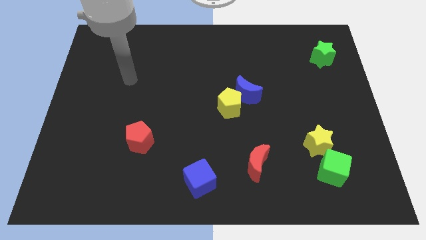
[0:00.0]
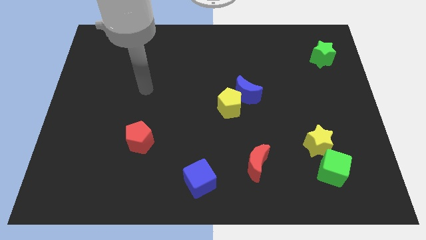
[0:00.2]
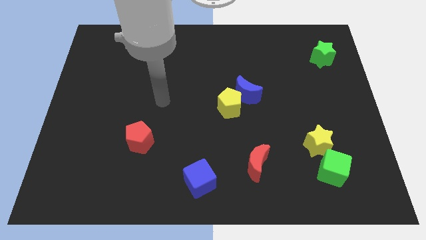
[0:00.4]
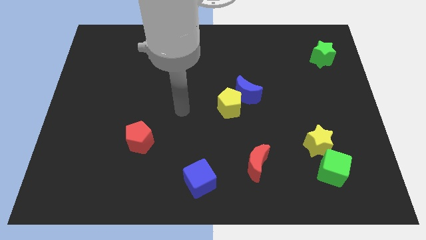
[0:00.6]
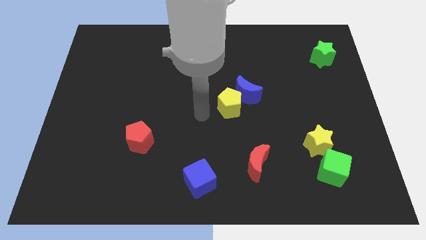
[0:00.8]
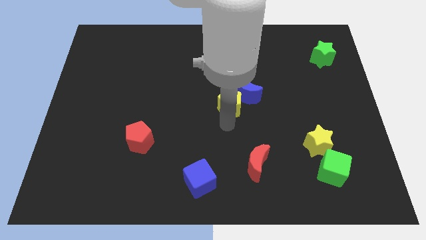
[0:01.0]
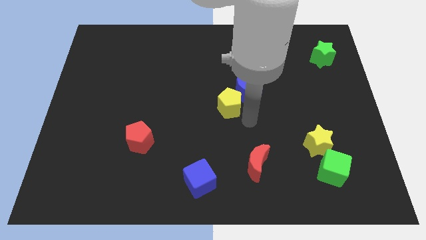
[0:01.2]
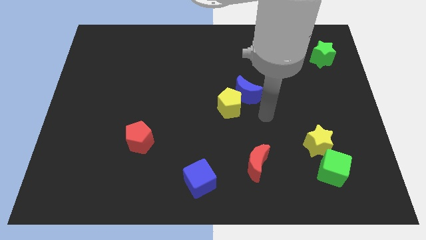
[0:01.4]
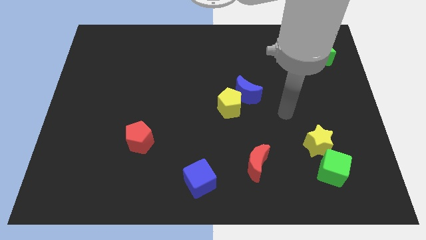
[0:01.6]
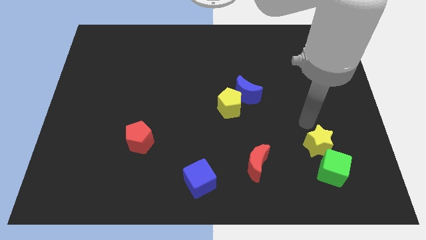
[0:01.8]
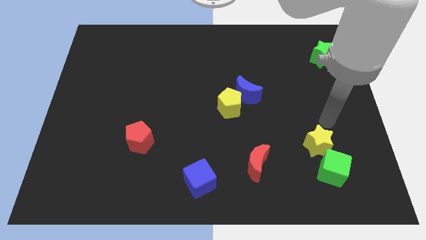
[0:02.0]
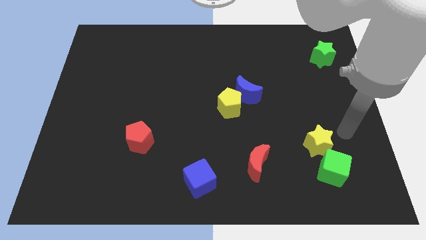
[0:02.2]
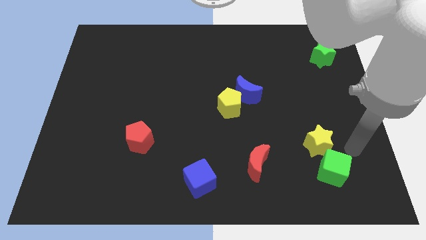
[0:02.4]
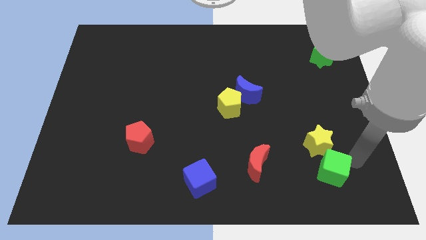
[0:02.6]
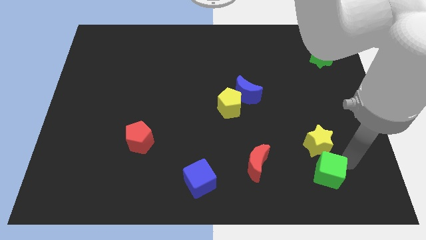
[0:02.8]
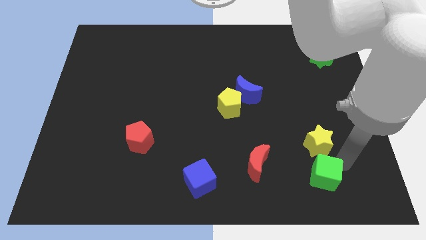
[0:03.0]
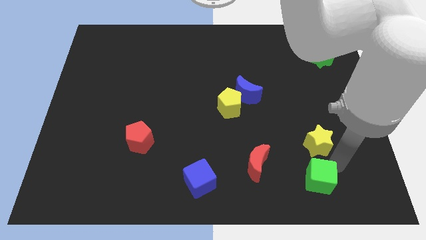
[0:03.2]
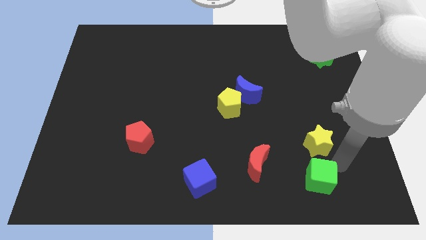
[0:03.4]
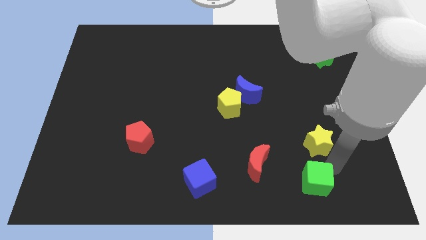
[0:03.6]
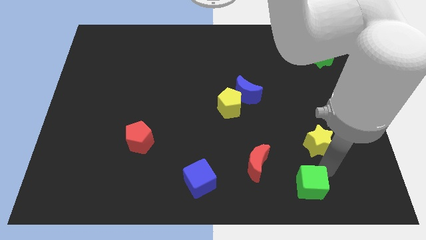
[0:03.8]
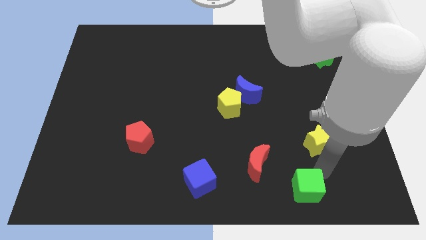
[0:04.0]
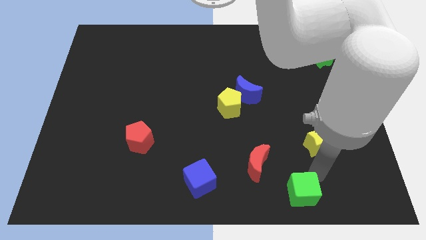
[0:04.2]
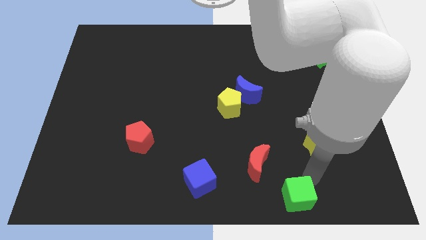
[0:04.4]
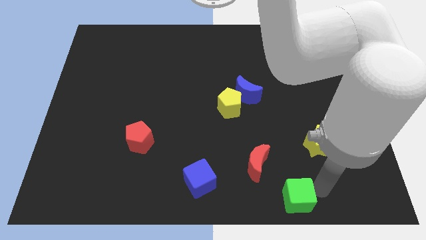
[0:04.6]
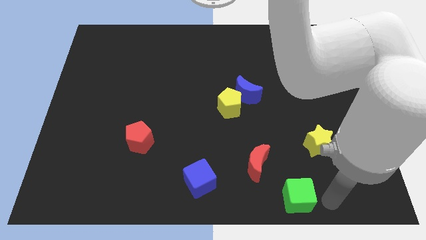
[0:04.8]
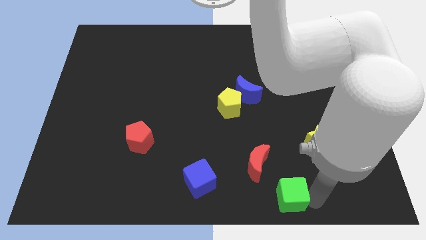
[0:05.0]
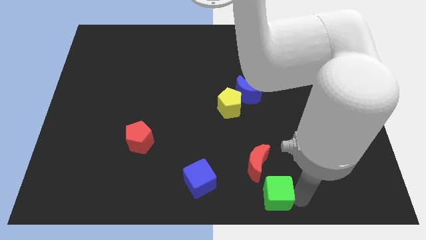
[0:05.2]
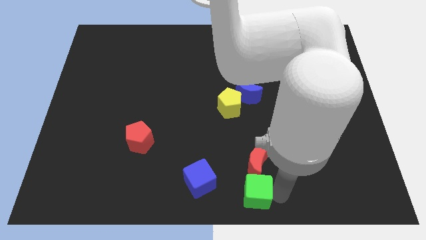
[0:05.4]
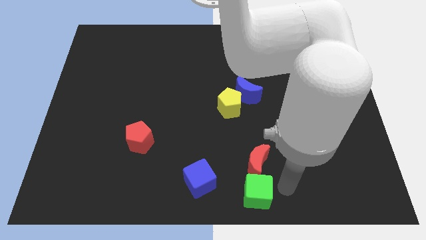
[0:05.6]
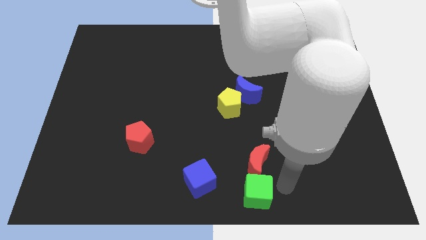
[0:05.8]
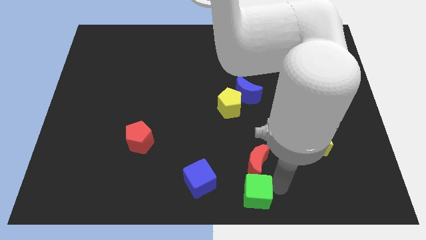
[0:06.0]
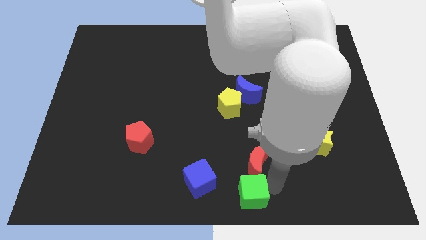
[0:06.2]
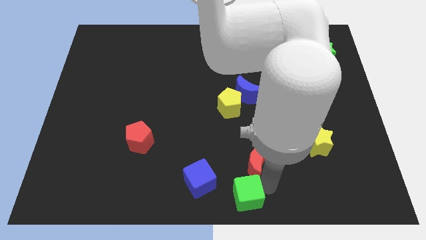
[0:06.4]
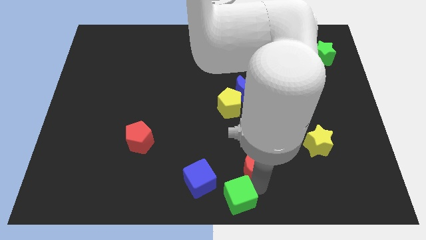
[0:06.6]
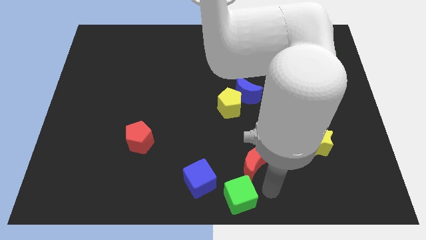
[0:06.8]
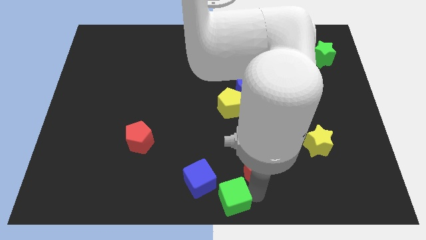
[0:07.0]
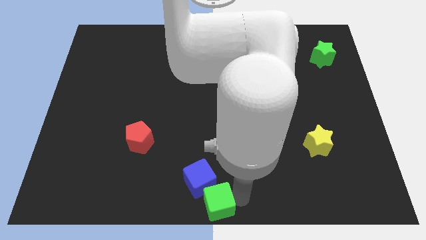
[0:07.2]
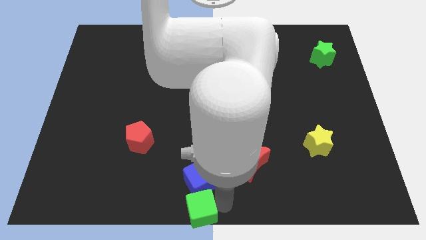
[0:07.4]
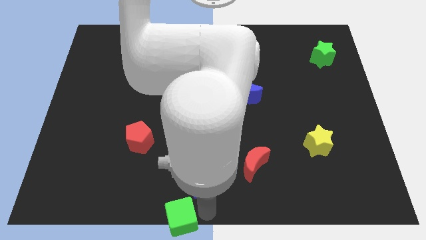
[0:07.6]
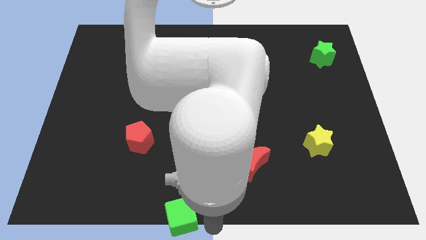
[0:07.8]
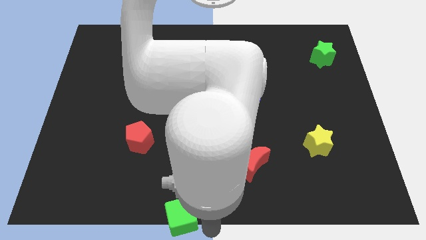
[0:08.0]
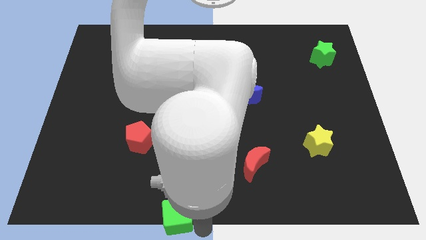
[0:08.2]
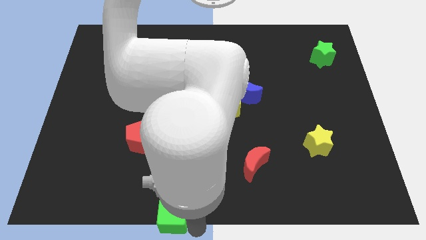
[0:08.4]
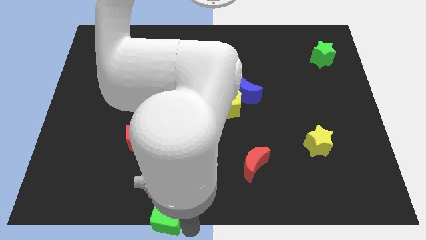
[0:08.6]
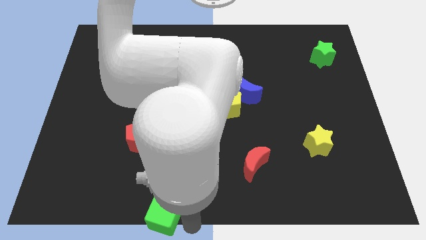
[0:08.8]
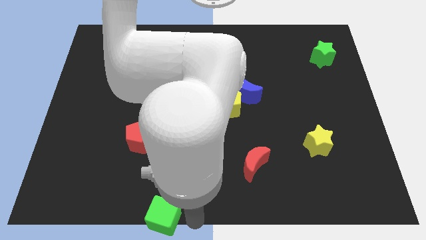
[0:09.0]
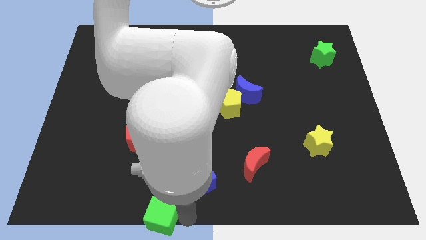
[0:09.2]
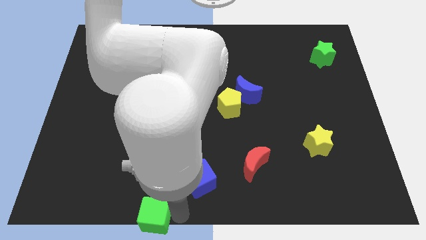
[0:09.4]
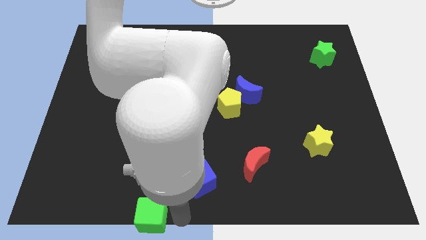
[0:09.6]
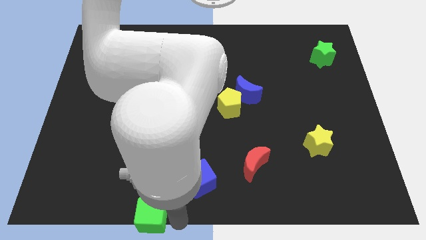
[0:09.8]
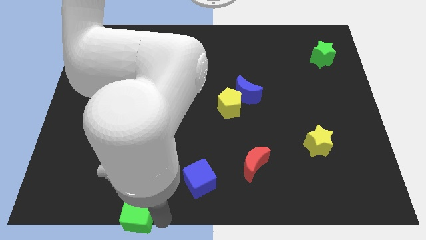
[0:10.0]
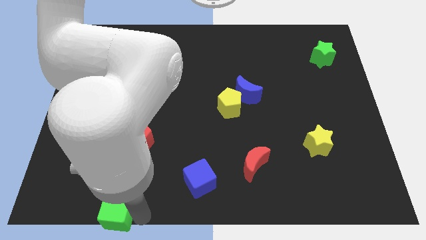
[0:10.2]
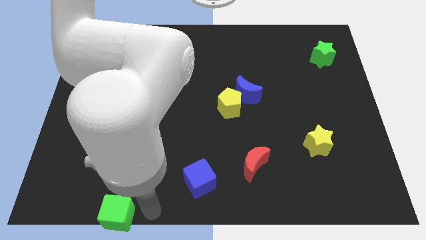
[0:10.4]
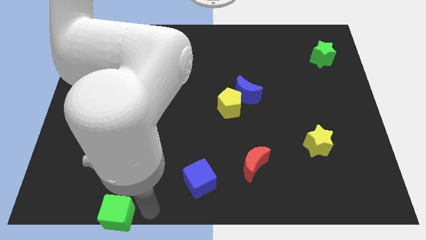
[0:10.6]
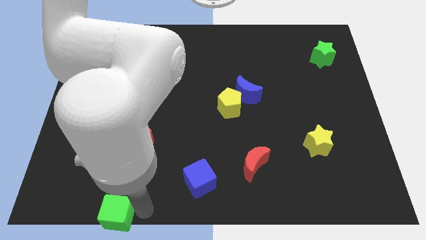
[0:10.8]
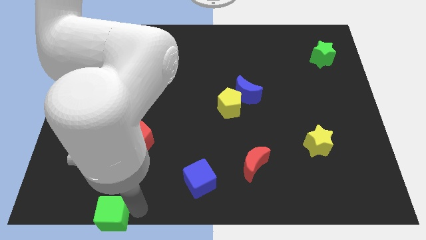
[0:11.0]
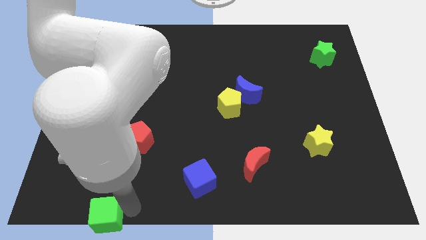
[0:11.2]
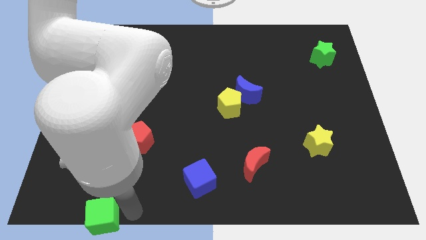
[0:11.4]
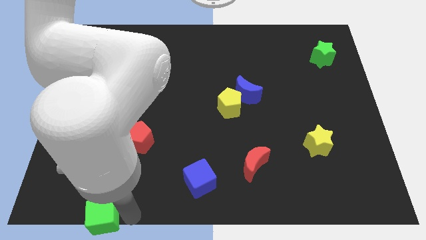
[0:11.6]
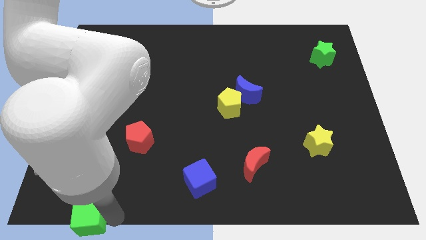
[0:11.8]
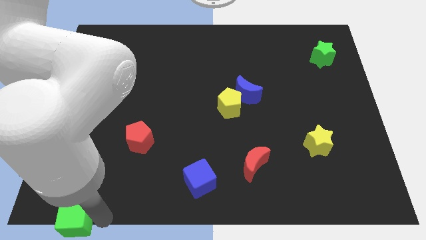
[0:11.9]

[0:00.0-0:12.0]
slide the green cube to the bottom left of the board

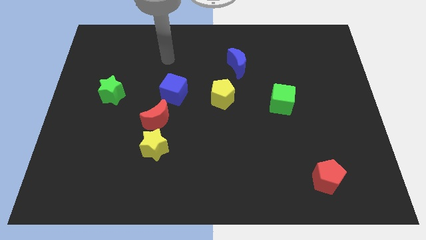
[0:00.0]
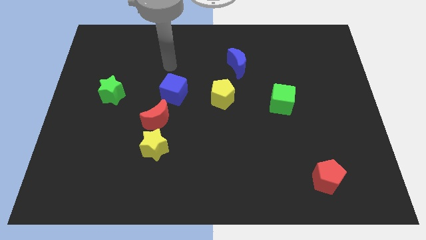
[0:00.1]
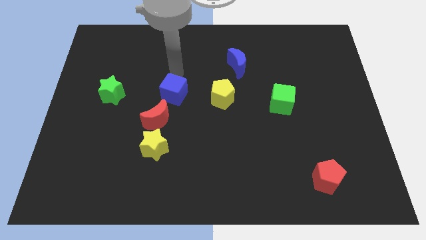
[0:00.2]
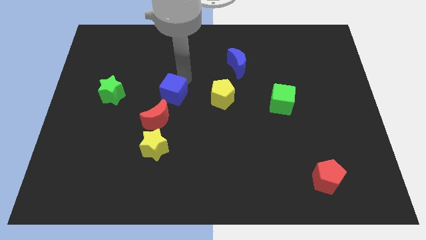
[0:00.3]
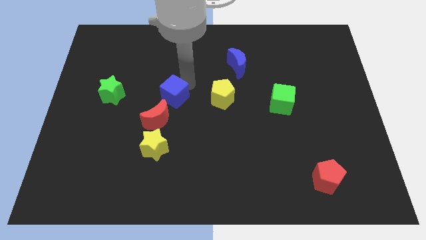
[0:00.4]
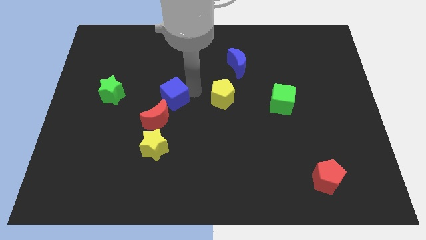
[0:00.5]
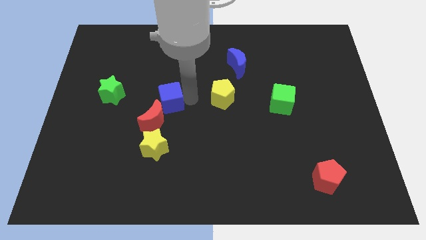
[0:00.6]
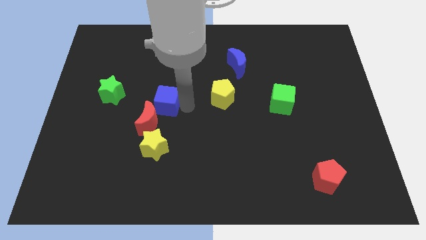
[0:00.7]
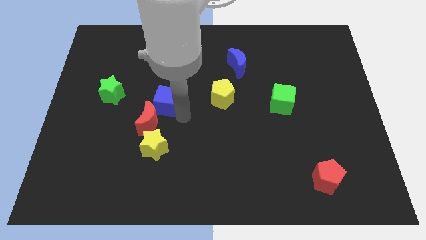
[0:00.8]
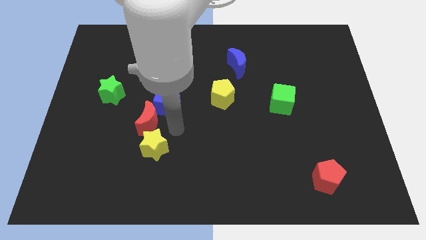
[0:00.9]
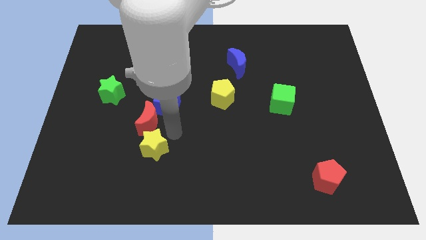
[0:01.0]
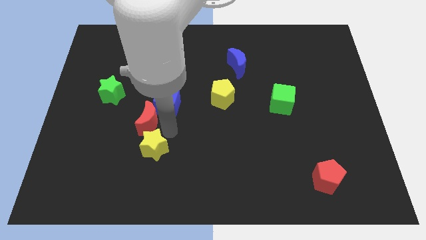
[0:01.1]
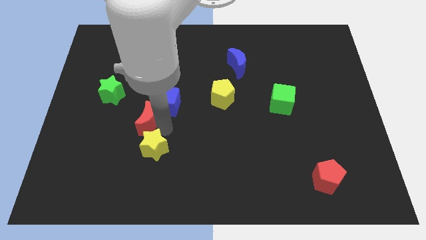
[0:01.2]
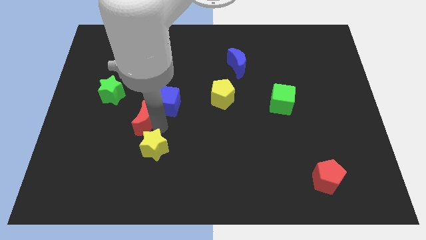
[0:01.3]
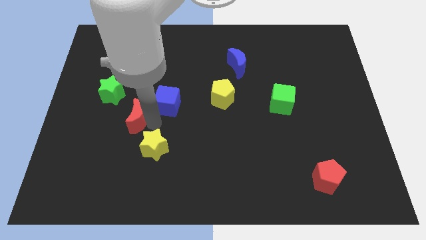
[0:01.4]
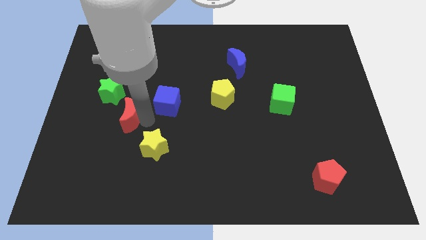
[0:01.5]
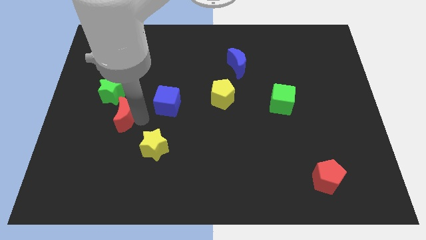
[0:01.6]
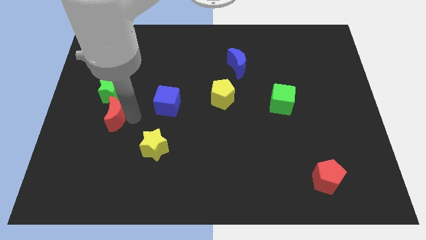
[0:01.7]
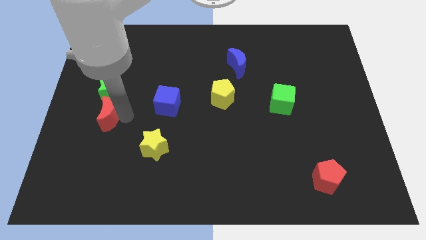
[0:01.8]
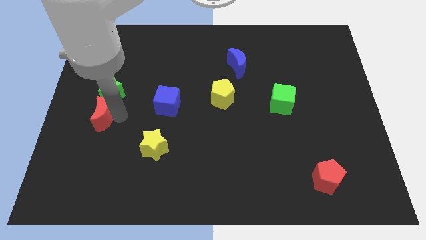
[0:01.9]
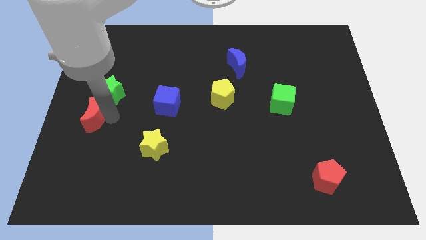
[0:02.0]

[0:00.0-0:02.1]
push the red moon to the left side of the board
